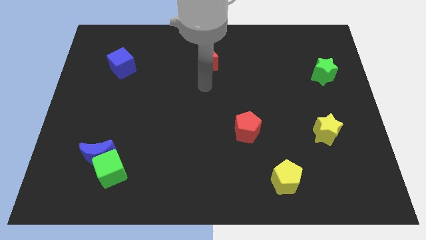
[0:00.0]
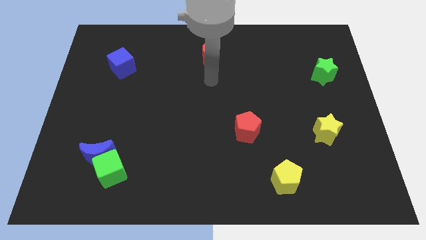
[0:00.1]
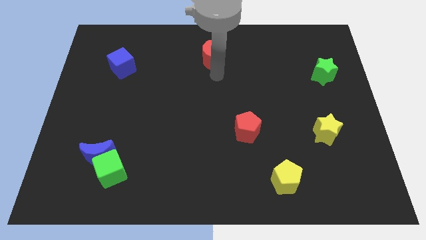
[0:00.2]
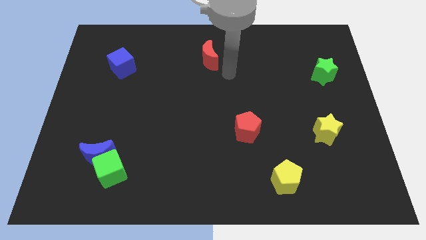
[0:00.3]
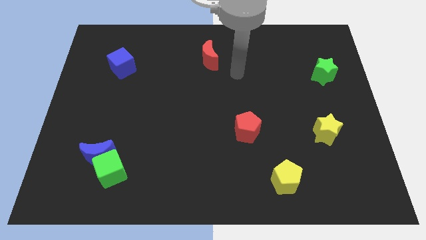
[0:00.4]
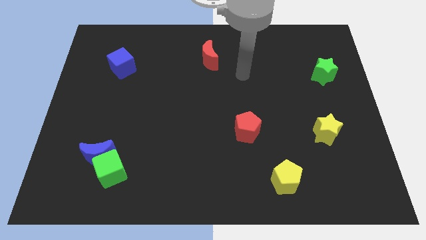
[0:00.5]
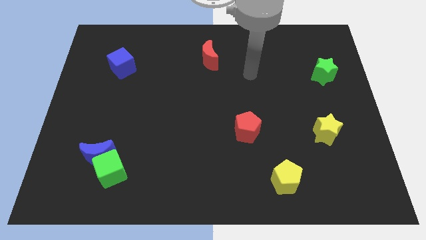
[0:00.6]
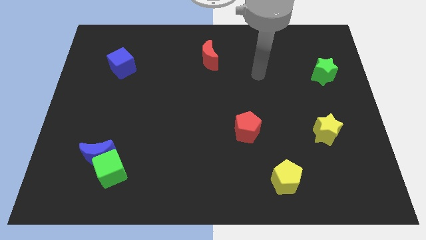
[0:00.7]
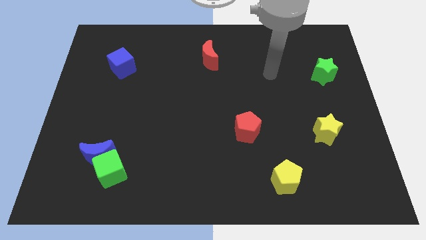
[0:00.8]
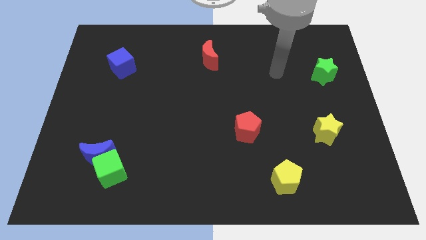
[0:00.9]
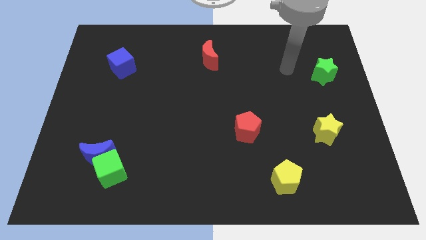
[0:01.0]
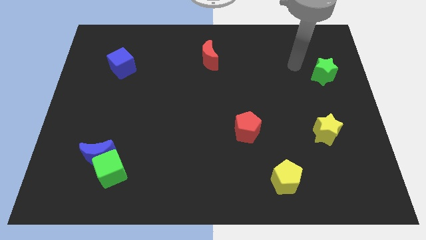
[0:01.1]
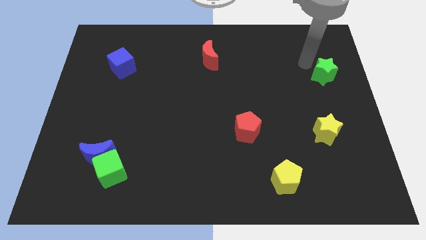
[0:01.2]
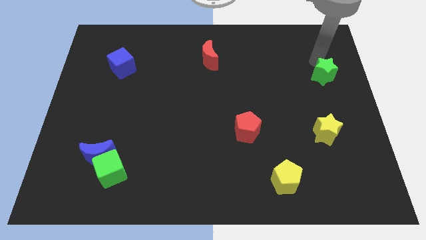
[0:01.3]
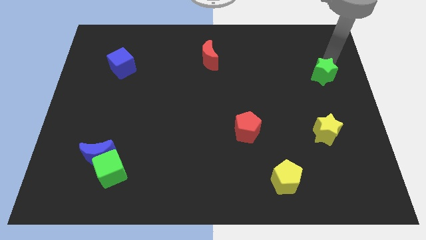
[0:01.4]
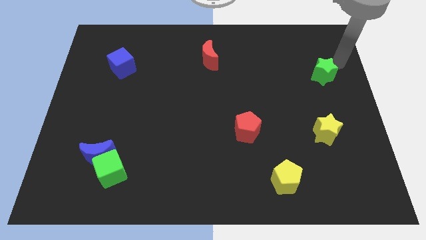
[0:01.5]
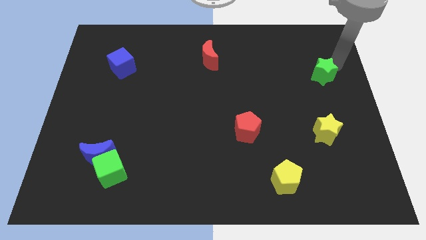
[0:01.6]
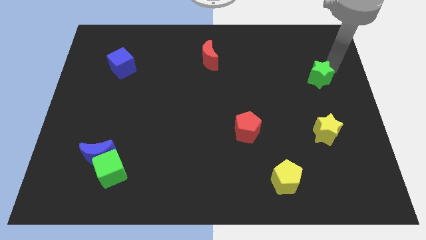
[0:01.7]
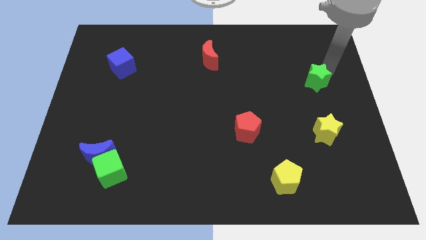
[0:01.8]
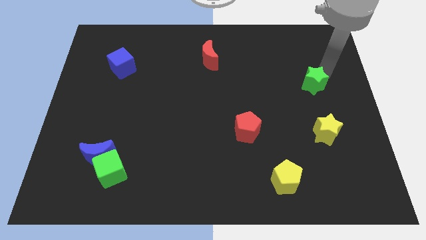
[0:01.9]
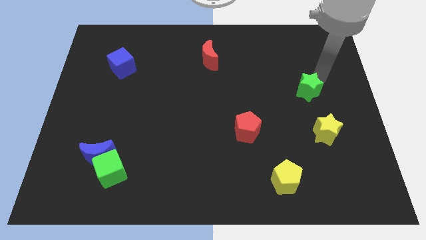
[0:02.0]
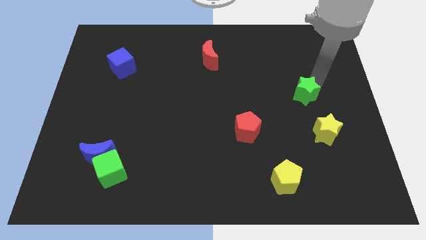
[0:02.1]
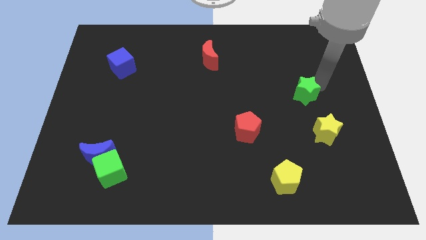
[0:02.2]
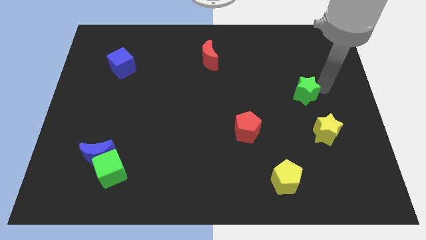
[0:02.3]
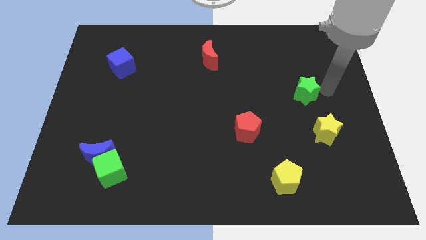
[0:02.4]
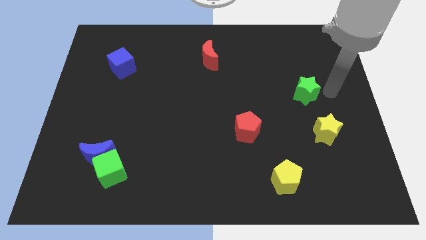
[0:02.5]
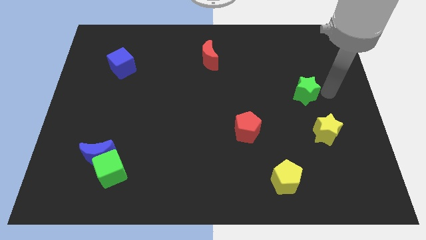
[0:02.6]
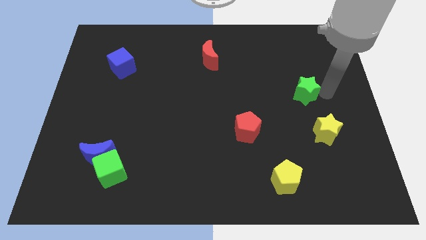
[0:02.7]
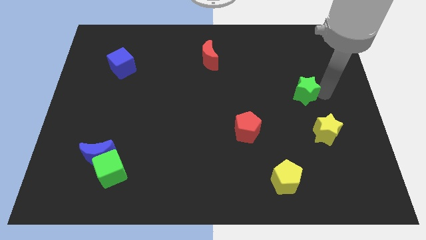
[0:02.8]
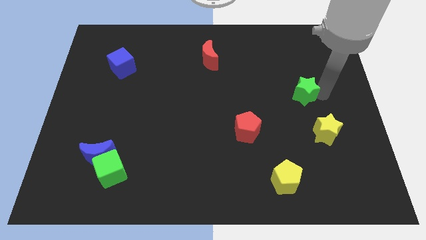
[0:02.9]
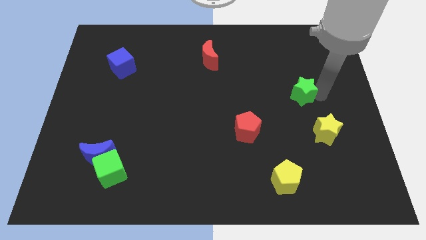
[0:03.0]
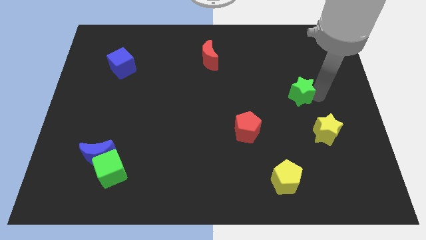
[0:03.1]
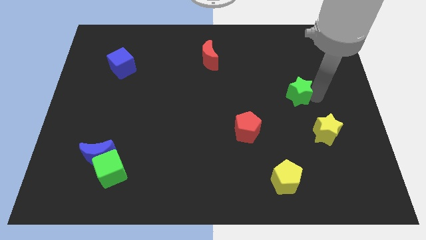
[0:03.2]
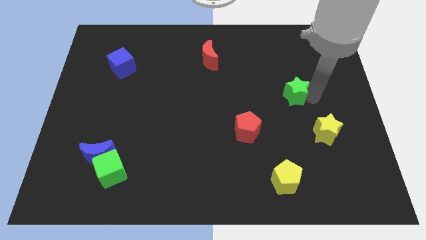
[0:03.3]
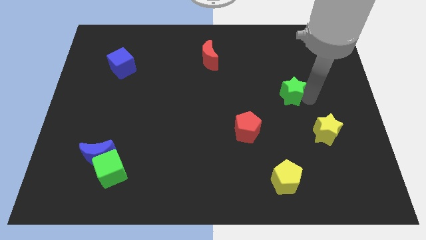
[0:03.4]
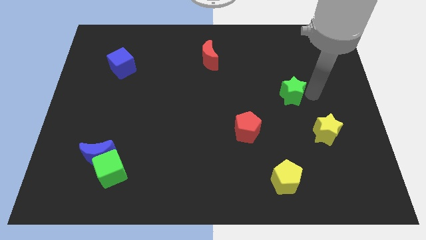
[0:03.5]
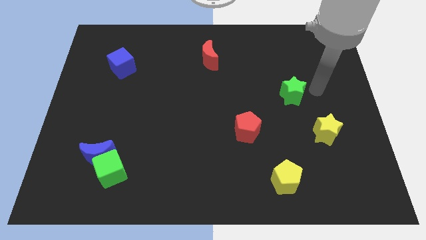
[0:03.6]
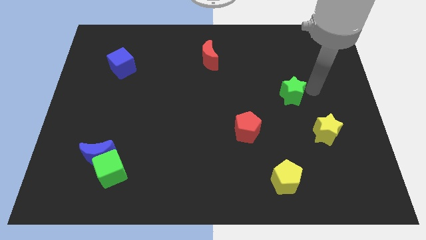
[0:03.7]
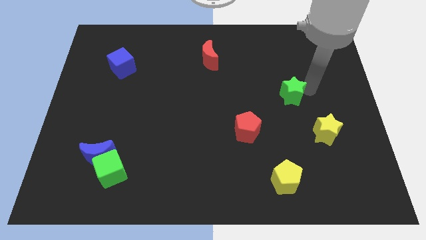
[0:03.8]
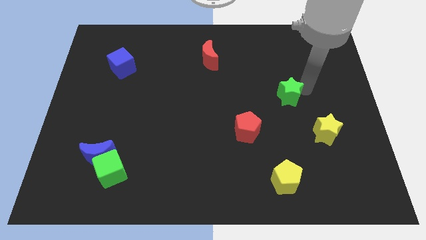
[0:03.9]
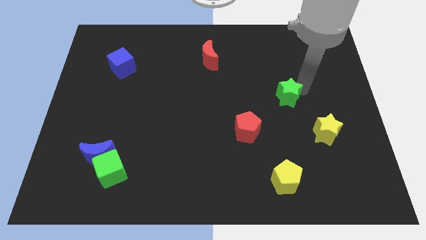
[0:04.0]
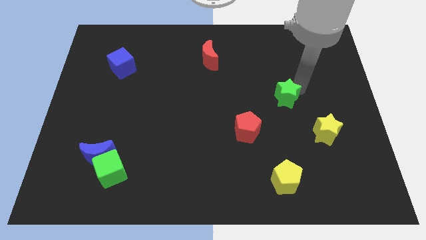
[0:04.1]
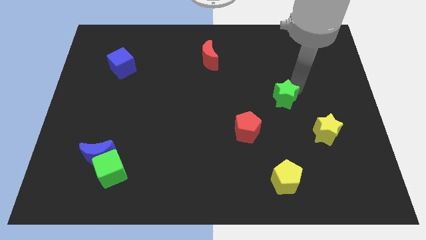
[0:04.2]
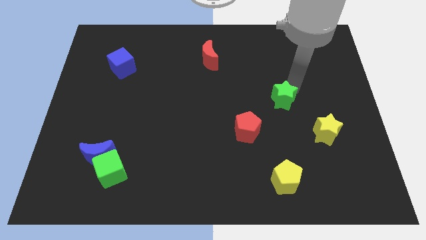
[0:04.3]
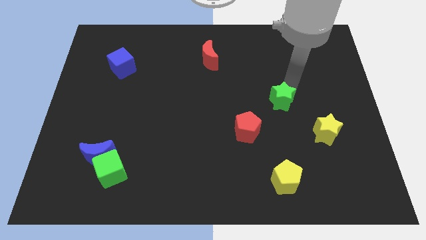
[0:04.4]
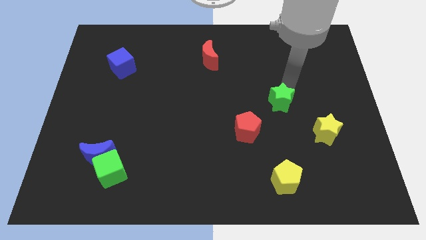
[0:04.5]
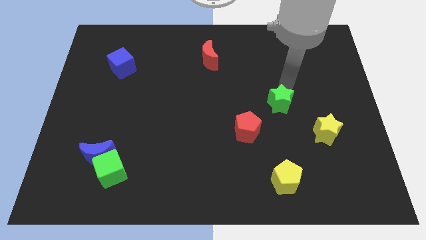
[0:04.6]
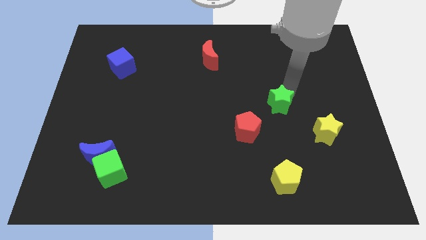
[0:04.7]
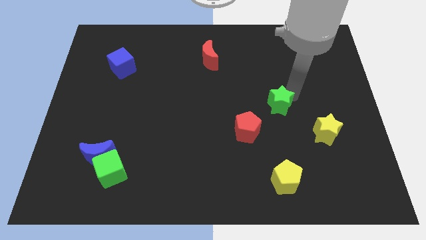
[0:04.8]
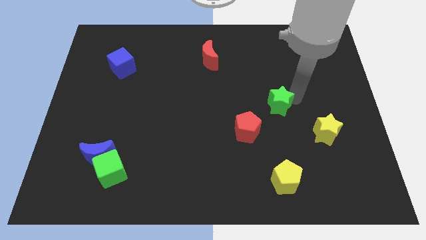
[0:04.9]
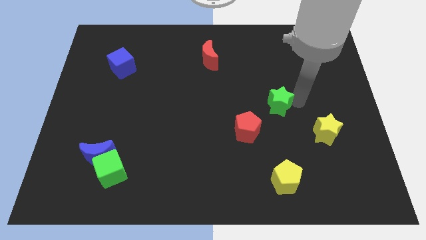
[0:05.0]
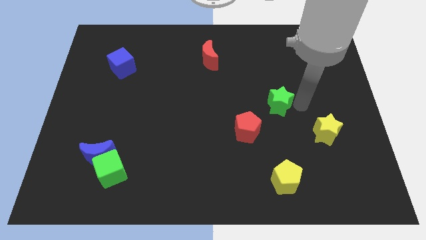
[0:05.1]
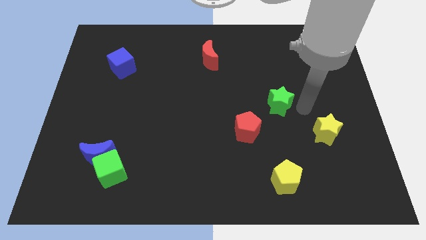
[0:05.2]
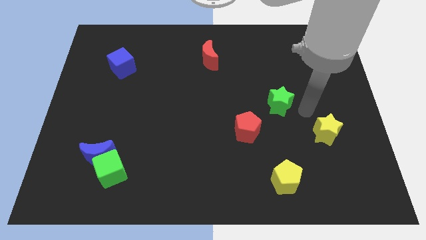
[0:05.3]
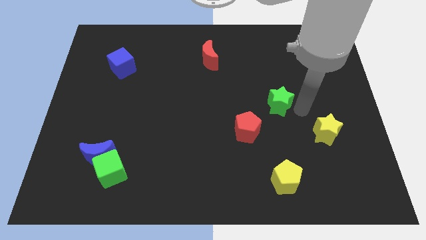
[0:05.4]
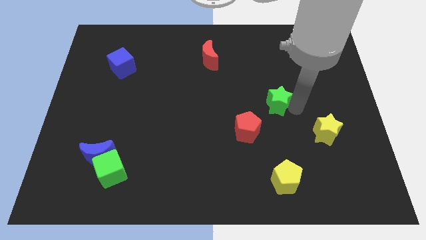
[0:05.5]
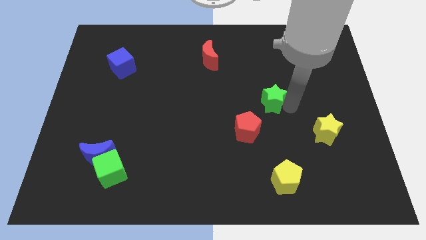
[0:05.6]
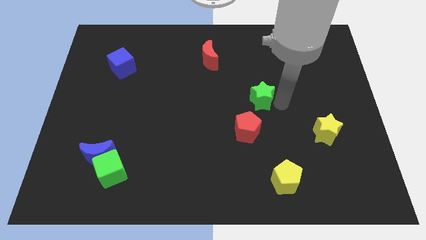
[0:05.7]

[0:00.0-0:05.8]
slide the green star to the middle of the board
